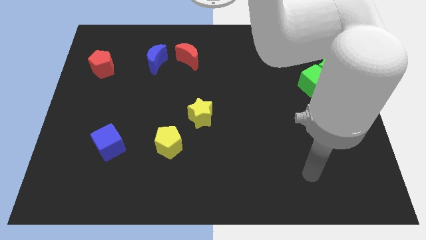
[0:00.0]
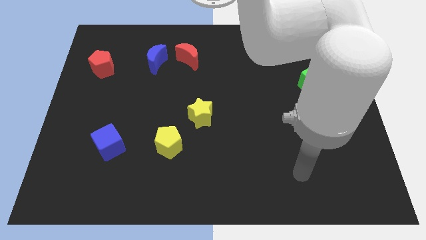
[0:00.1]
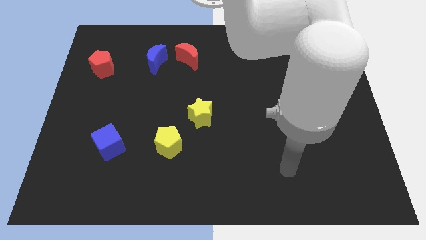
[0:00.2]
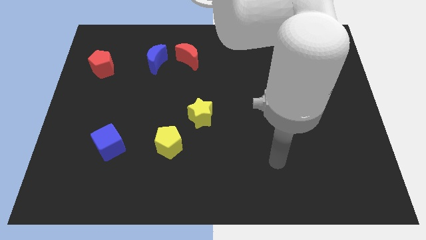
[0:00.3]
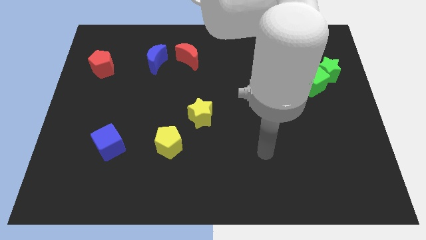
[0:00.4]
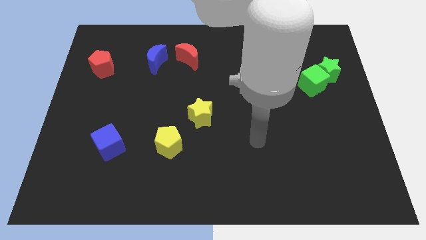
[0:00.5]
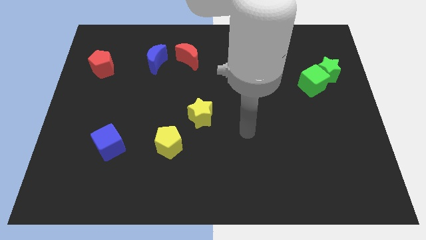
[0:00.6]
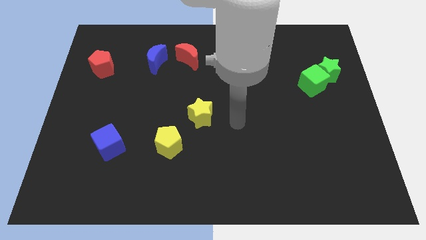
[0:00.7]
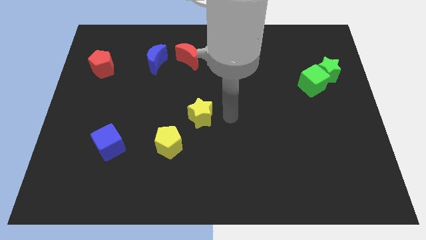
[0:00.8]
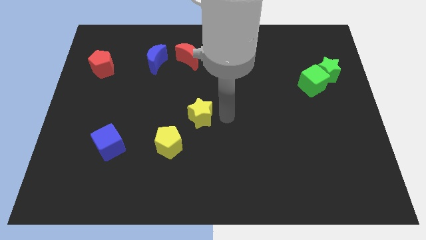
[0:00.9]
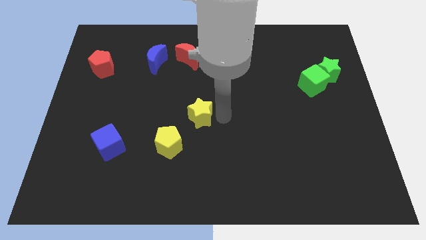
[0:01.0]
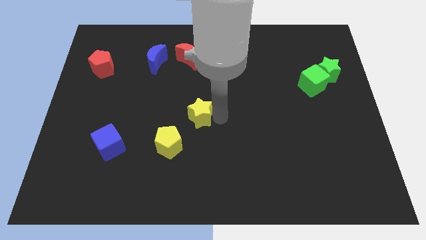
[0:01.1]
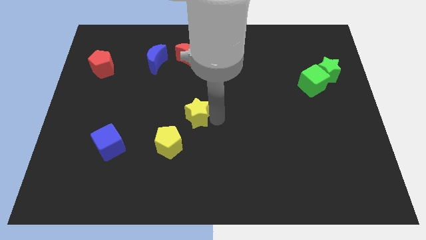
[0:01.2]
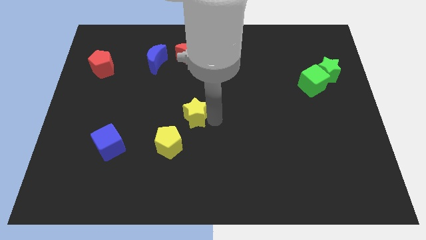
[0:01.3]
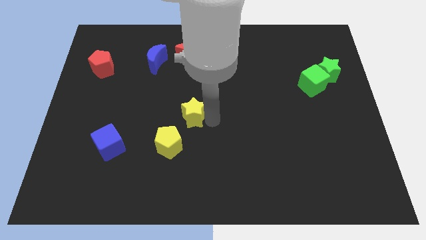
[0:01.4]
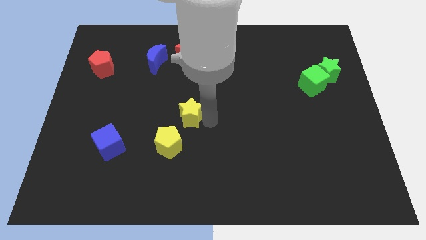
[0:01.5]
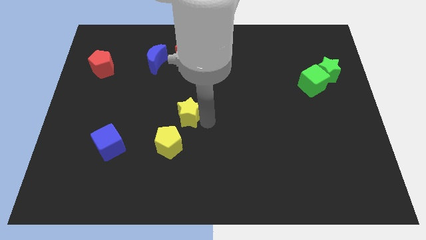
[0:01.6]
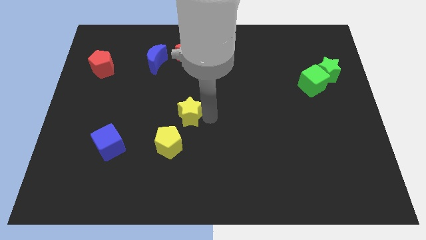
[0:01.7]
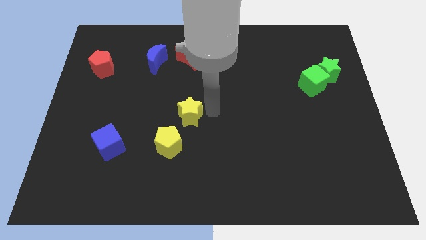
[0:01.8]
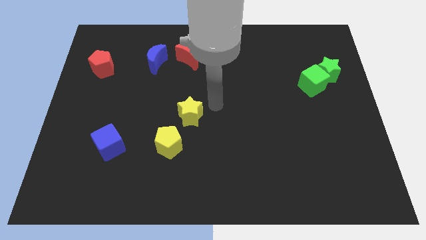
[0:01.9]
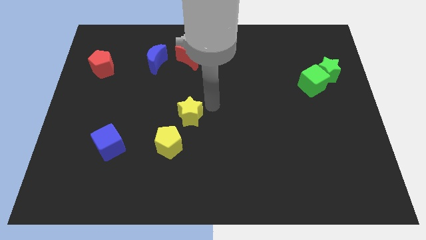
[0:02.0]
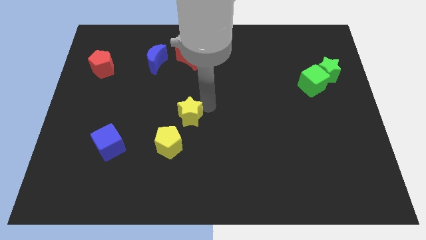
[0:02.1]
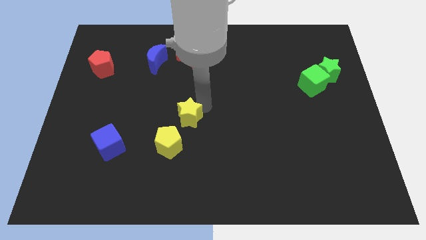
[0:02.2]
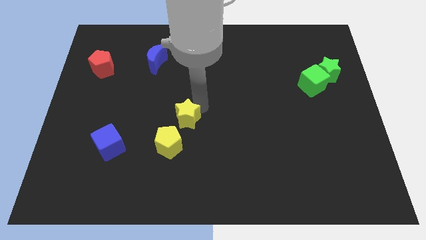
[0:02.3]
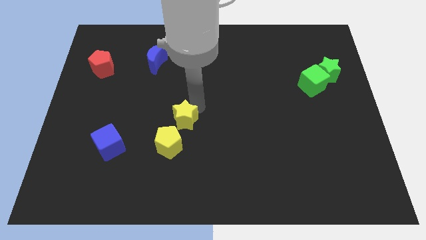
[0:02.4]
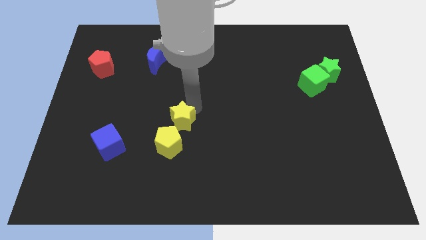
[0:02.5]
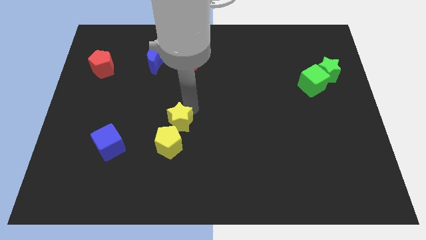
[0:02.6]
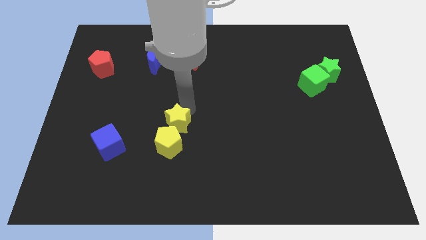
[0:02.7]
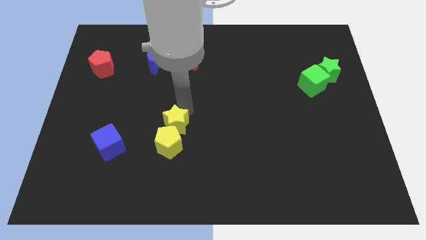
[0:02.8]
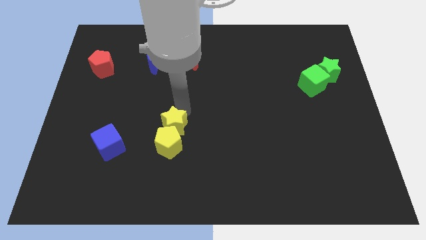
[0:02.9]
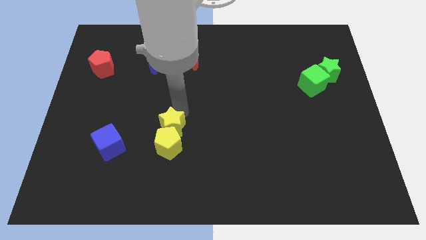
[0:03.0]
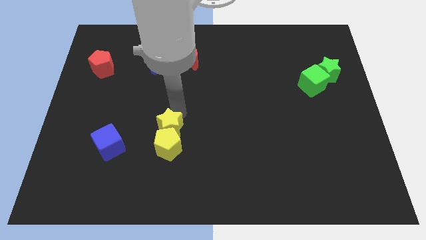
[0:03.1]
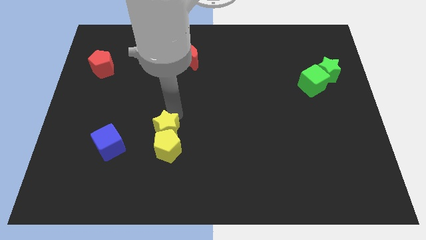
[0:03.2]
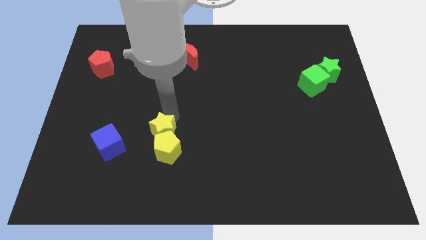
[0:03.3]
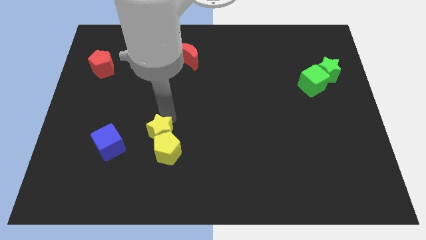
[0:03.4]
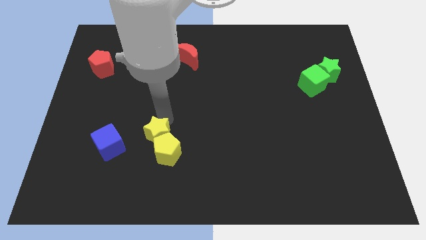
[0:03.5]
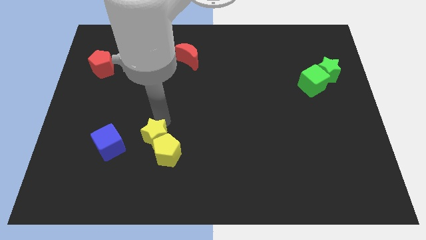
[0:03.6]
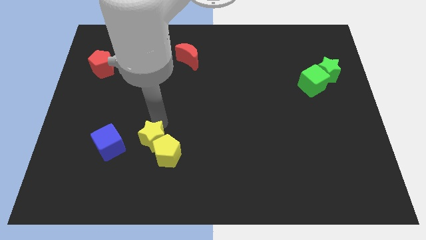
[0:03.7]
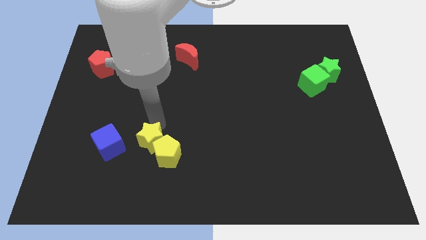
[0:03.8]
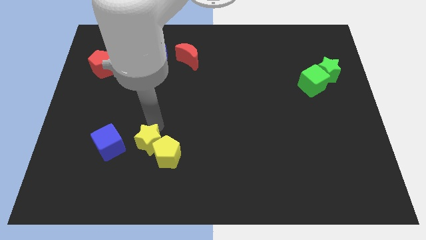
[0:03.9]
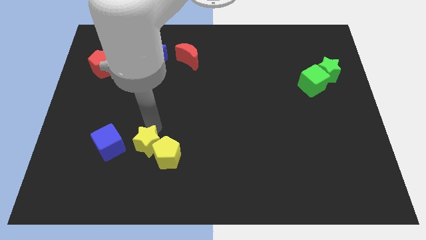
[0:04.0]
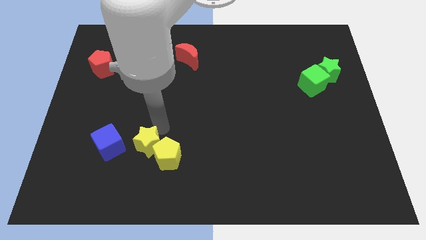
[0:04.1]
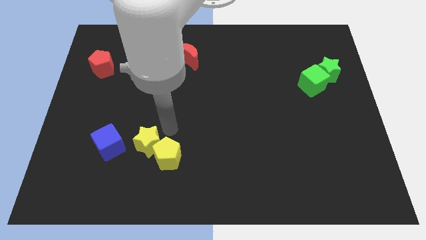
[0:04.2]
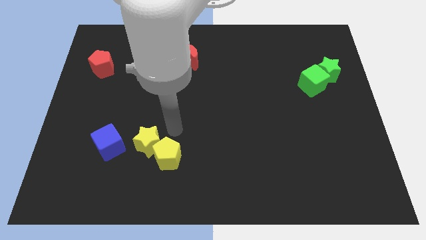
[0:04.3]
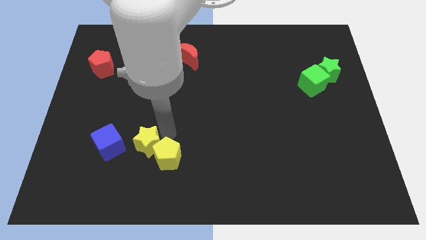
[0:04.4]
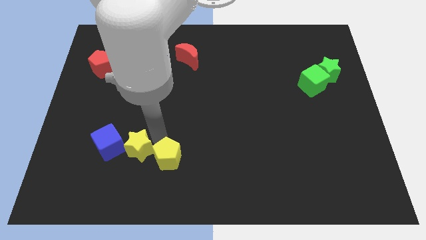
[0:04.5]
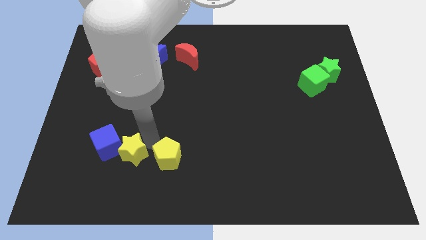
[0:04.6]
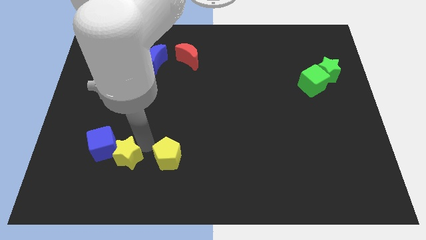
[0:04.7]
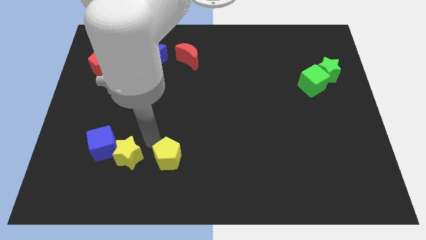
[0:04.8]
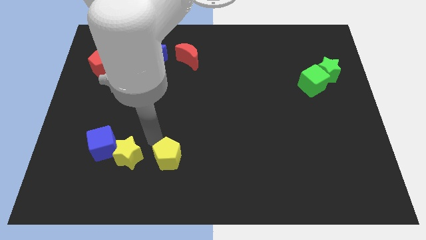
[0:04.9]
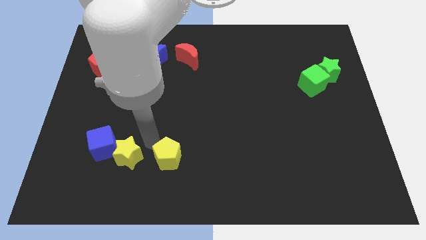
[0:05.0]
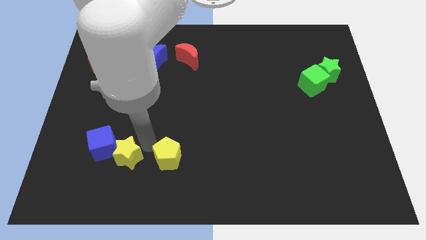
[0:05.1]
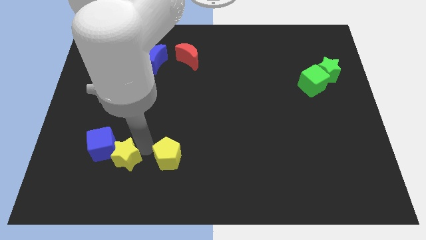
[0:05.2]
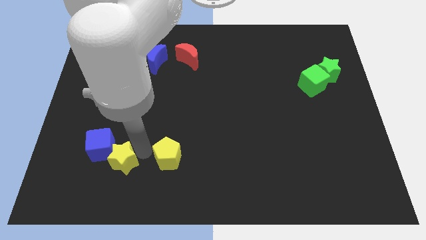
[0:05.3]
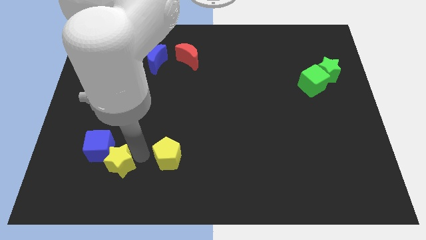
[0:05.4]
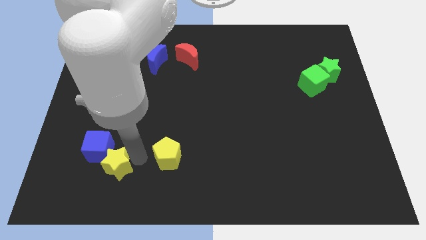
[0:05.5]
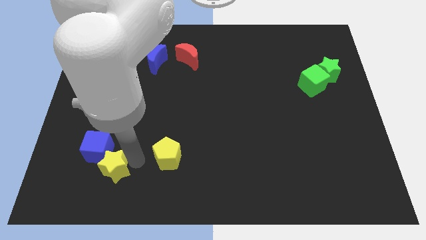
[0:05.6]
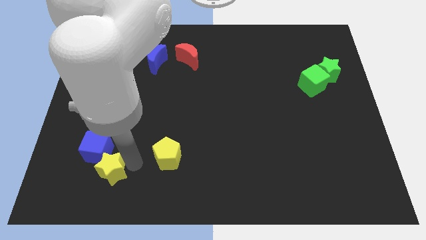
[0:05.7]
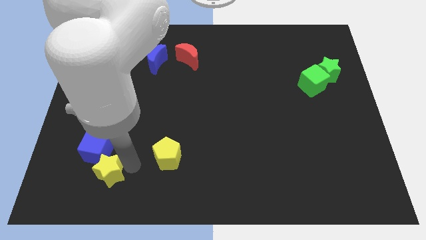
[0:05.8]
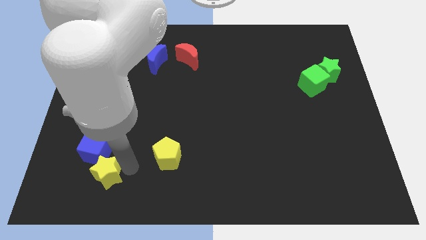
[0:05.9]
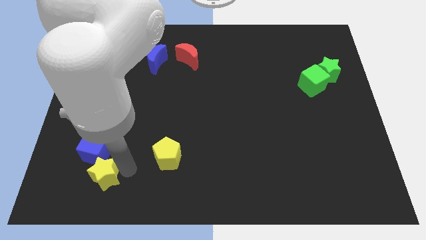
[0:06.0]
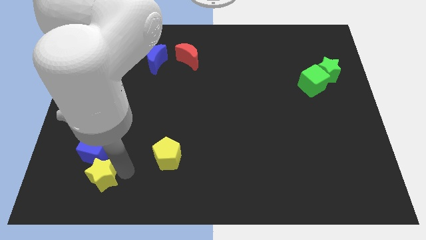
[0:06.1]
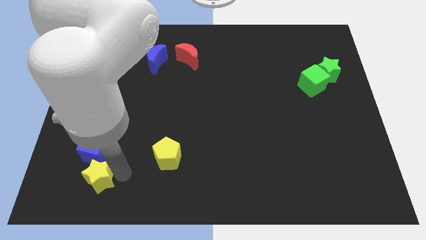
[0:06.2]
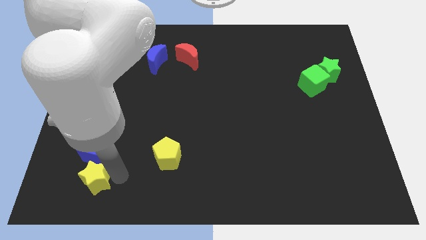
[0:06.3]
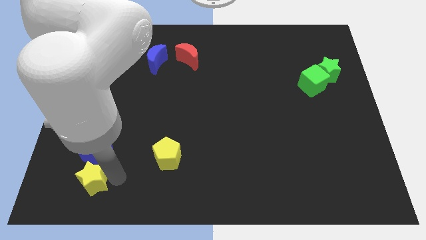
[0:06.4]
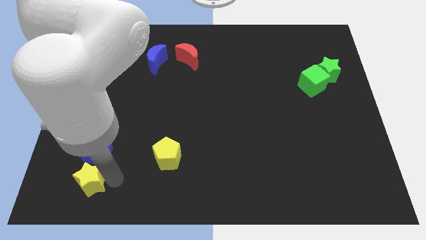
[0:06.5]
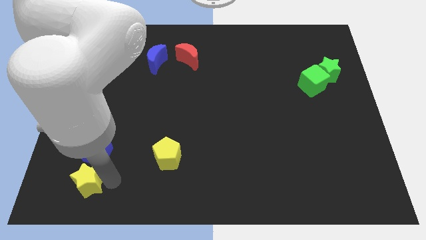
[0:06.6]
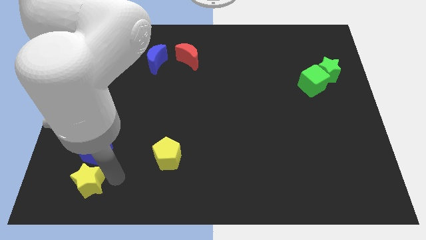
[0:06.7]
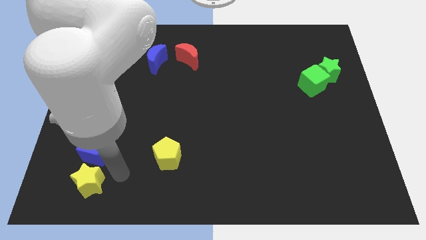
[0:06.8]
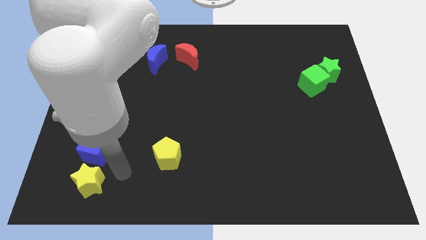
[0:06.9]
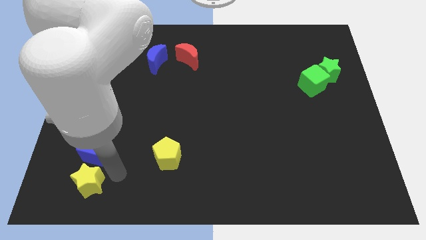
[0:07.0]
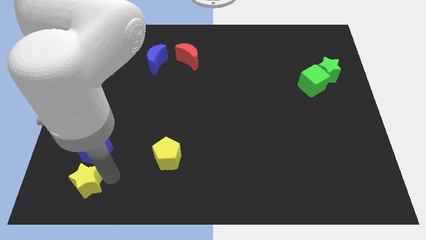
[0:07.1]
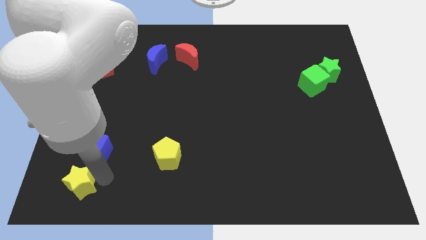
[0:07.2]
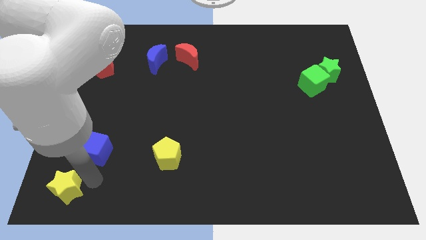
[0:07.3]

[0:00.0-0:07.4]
push the yellow star to the lower left corner
